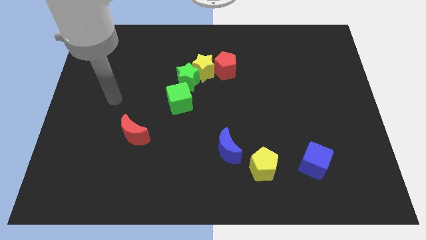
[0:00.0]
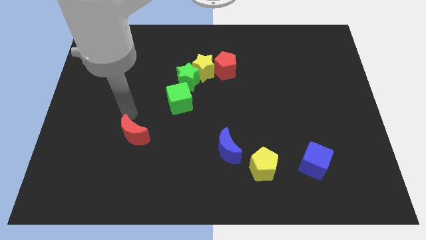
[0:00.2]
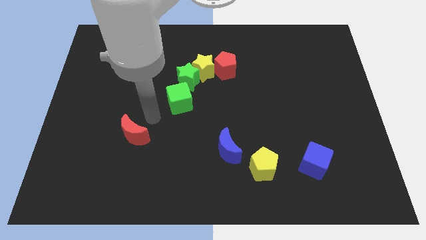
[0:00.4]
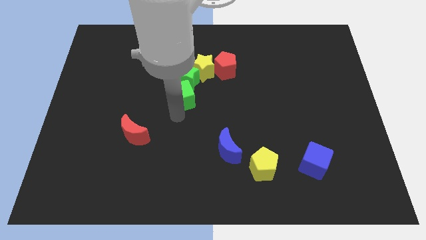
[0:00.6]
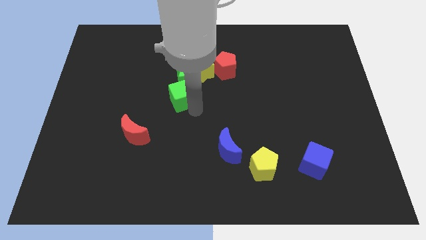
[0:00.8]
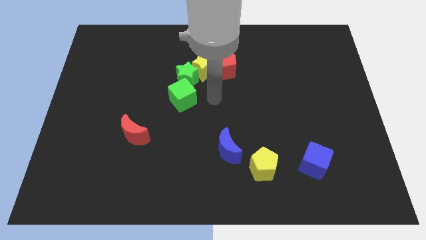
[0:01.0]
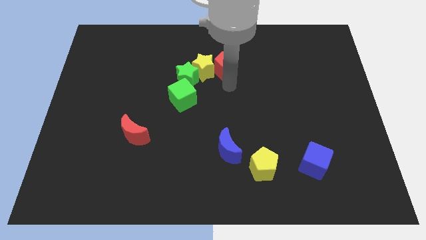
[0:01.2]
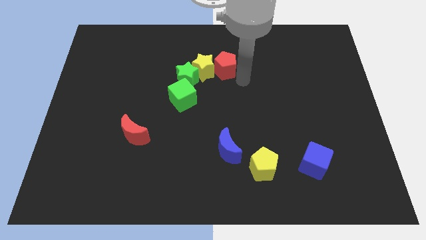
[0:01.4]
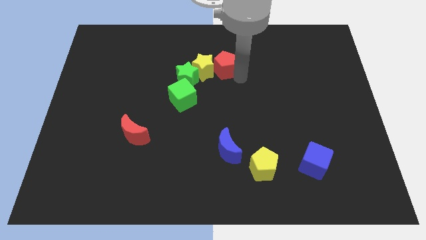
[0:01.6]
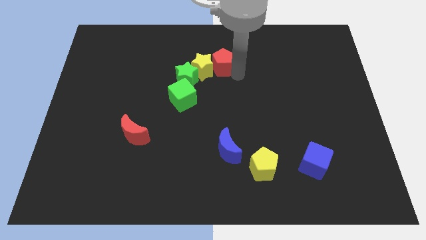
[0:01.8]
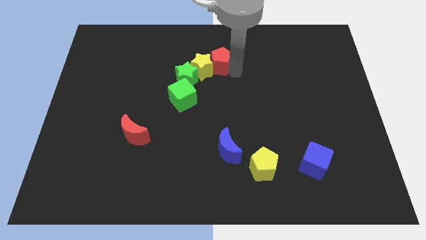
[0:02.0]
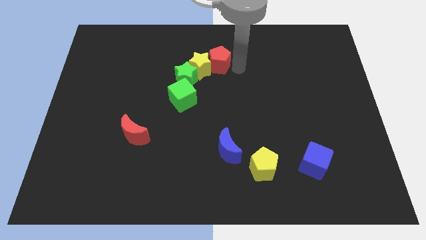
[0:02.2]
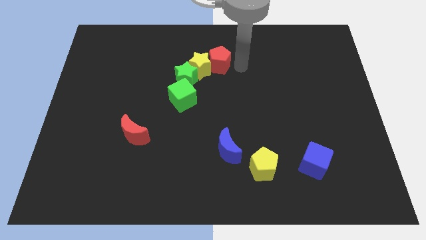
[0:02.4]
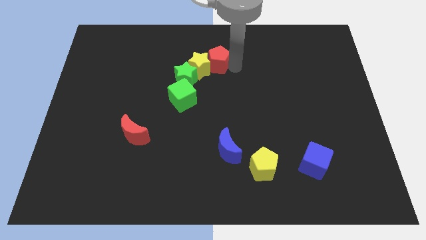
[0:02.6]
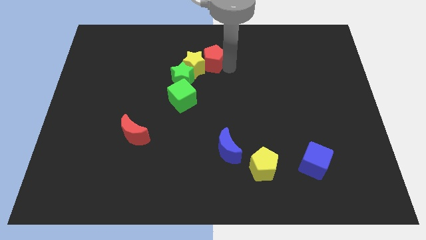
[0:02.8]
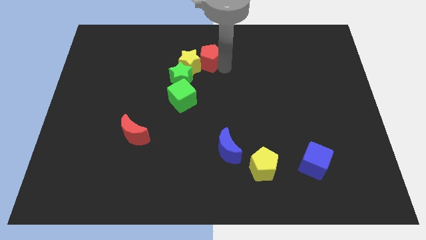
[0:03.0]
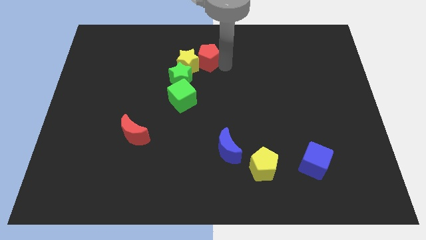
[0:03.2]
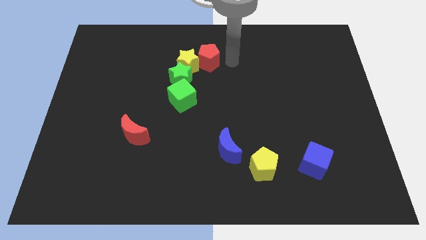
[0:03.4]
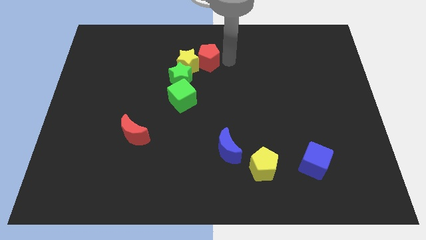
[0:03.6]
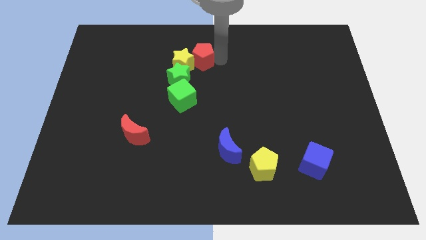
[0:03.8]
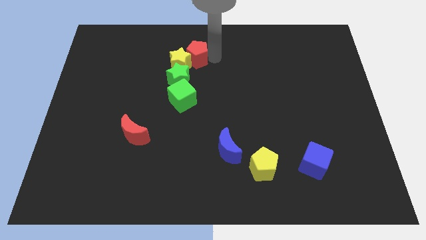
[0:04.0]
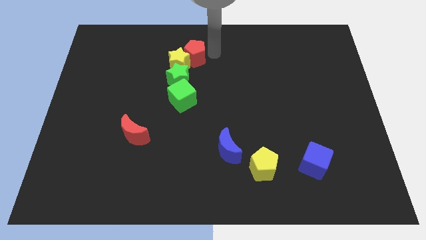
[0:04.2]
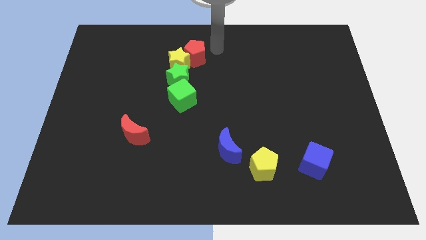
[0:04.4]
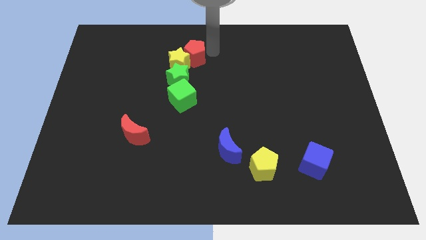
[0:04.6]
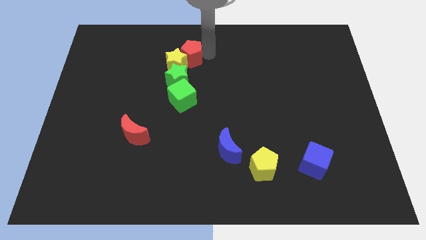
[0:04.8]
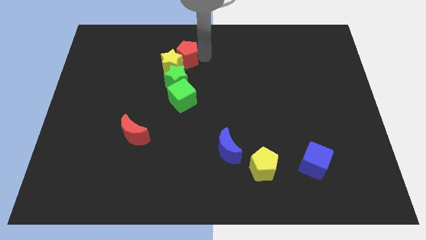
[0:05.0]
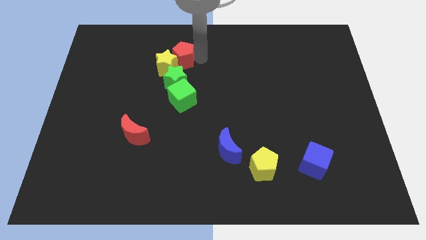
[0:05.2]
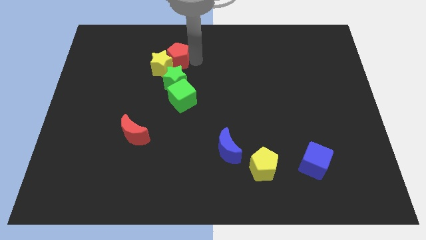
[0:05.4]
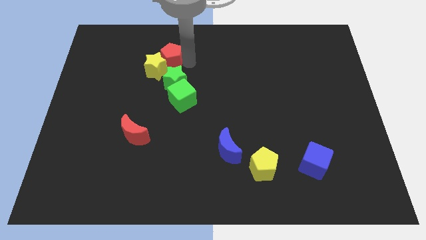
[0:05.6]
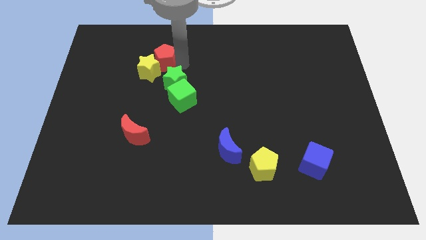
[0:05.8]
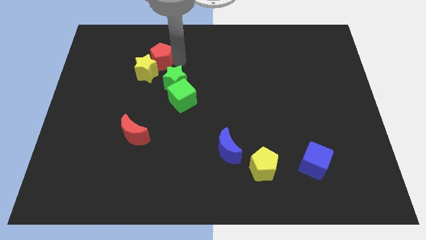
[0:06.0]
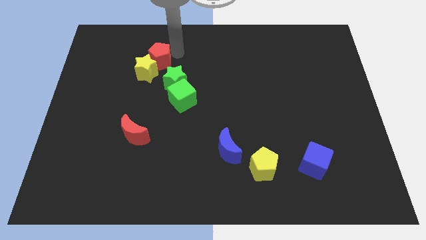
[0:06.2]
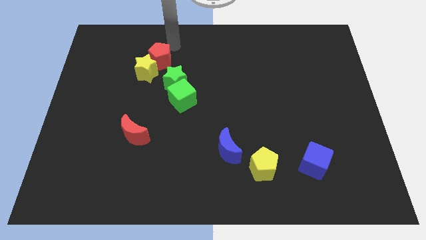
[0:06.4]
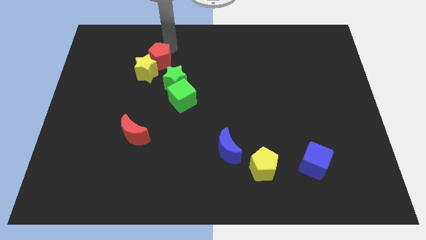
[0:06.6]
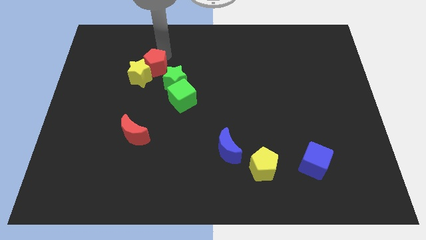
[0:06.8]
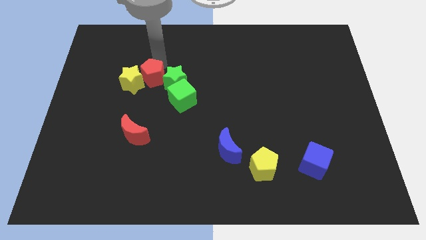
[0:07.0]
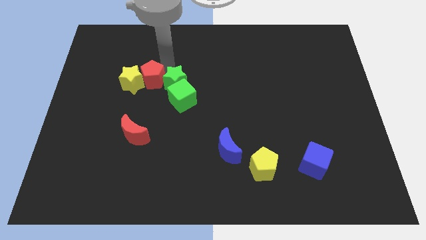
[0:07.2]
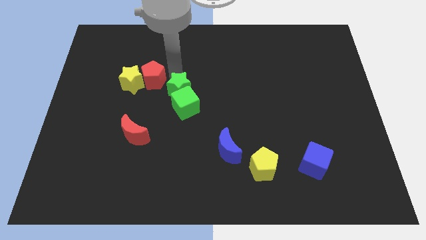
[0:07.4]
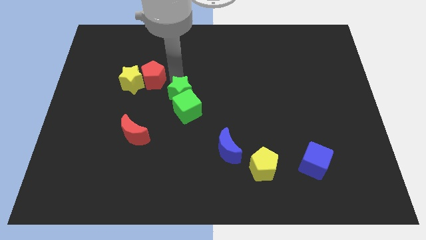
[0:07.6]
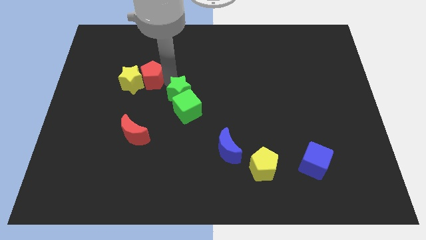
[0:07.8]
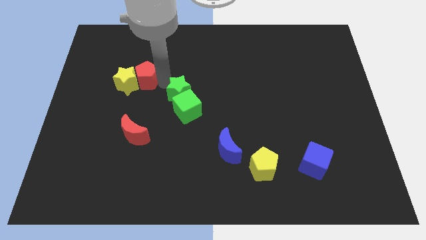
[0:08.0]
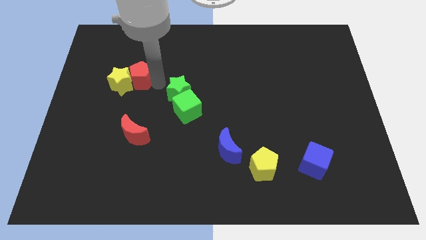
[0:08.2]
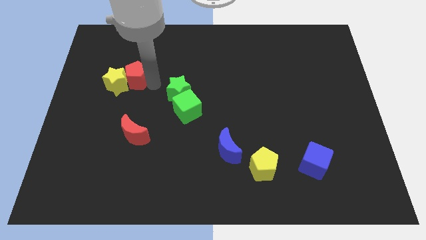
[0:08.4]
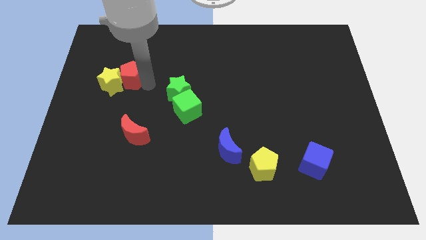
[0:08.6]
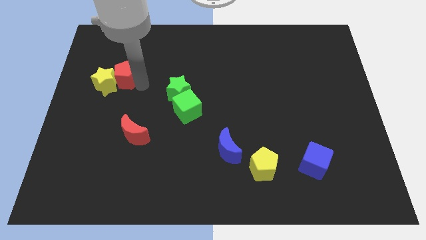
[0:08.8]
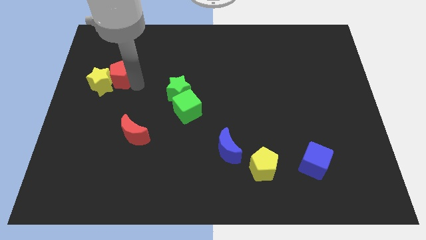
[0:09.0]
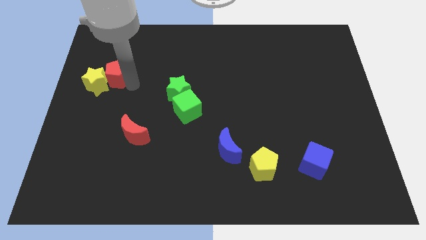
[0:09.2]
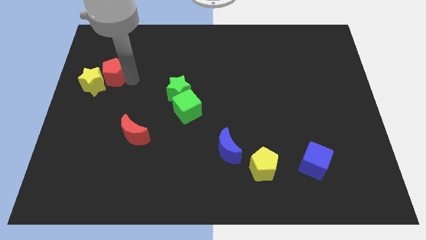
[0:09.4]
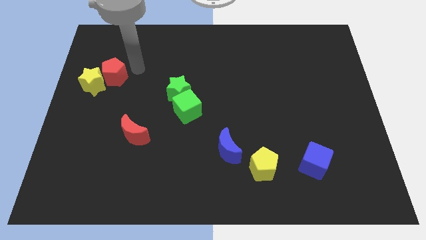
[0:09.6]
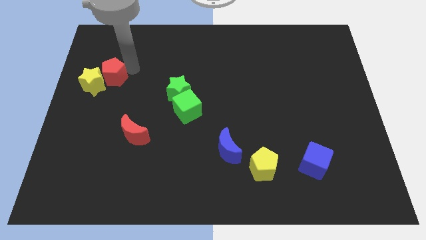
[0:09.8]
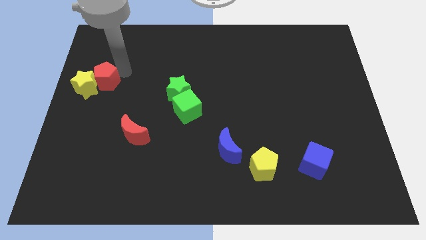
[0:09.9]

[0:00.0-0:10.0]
slide the red pentagon to the left side

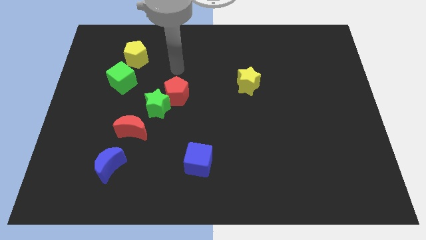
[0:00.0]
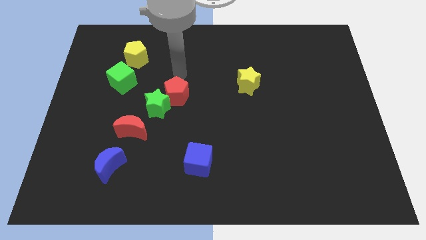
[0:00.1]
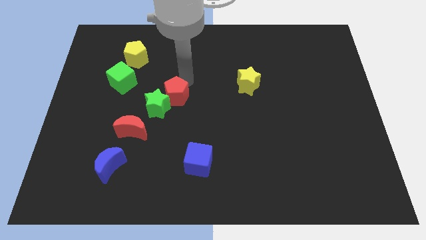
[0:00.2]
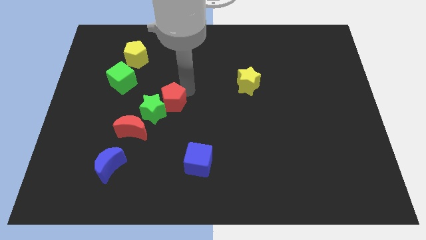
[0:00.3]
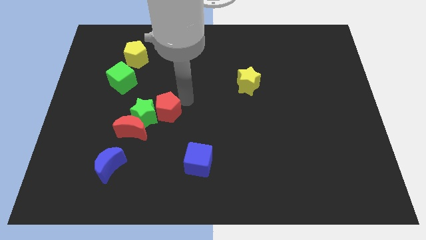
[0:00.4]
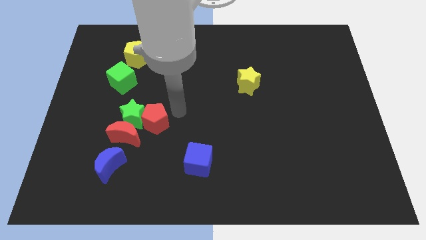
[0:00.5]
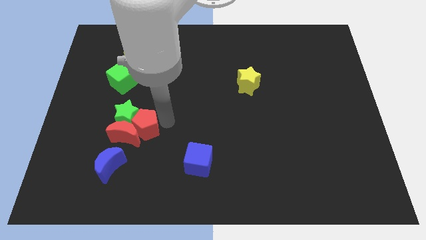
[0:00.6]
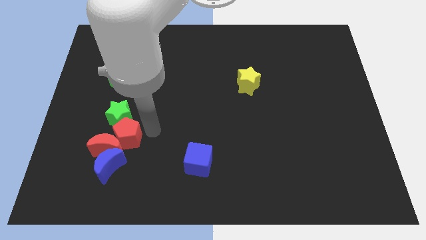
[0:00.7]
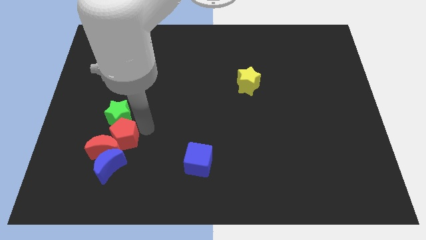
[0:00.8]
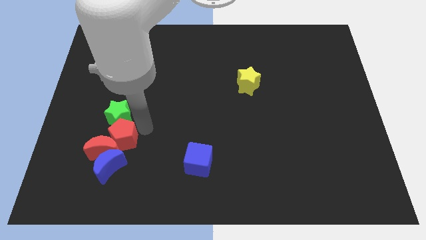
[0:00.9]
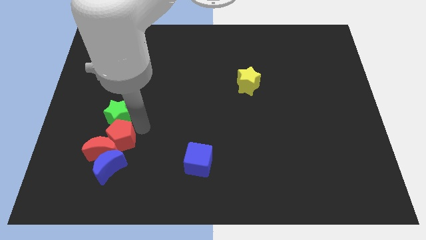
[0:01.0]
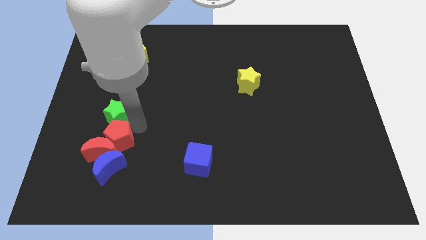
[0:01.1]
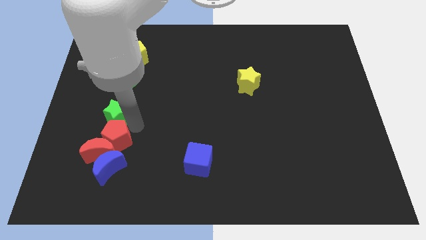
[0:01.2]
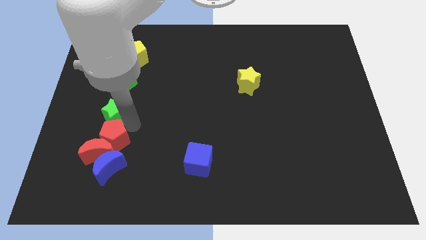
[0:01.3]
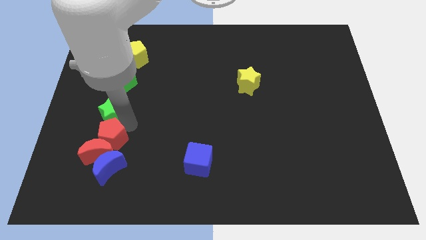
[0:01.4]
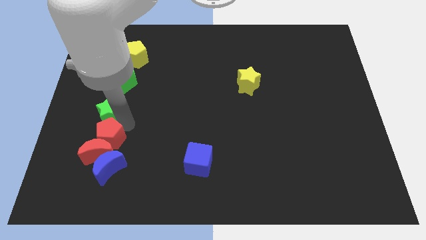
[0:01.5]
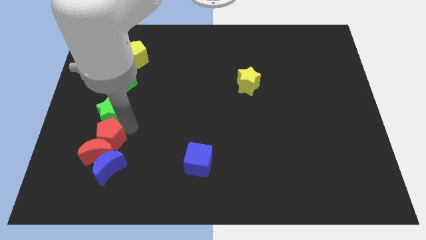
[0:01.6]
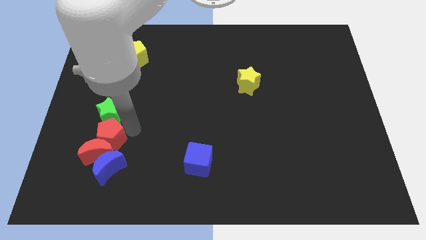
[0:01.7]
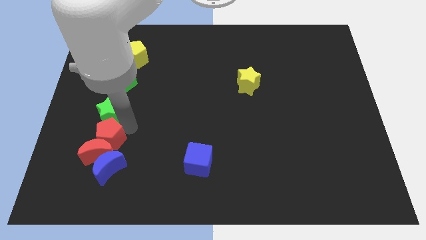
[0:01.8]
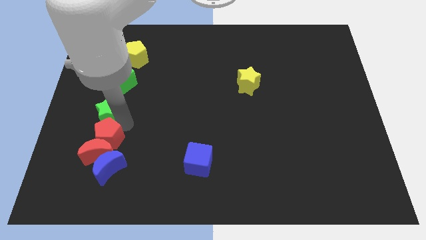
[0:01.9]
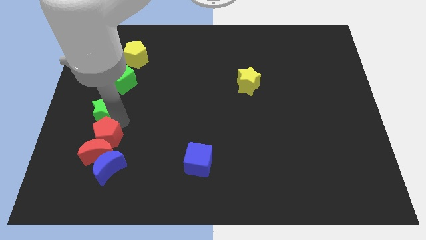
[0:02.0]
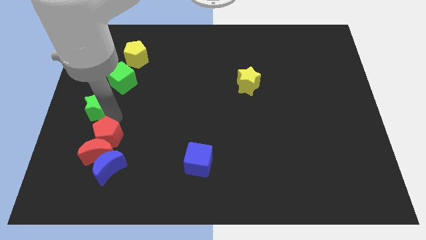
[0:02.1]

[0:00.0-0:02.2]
put the green star to the center left
